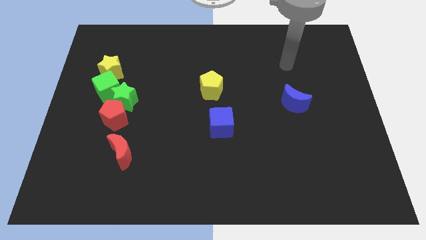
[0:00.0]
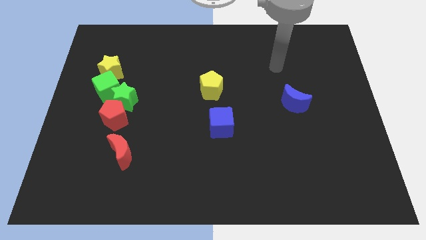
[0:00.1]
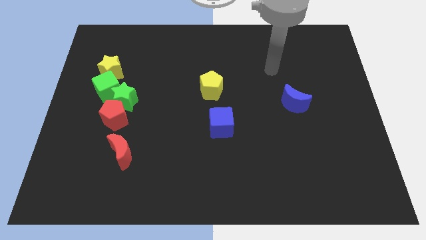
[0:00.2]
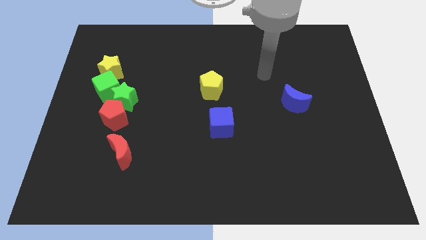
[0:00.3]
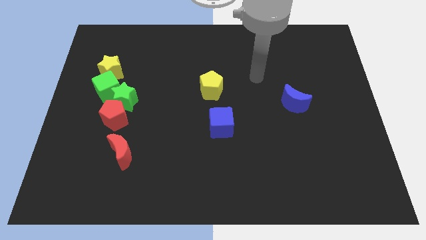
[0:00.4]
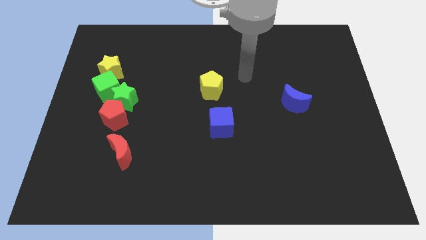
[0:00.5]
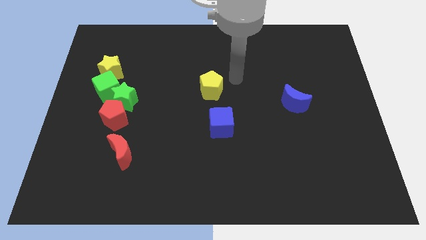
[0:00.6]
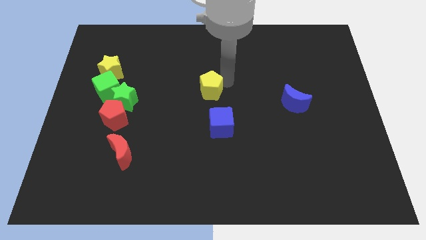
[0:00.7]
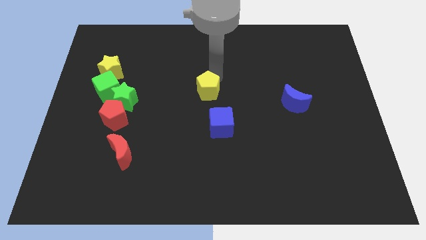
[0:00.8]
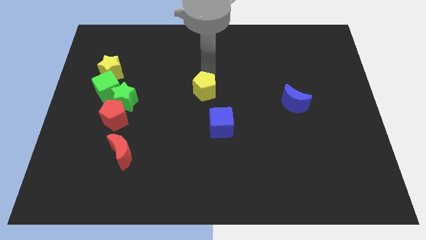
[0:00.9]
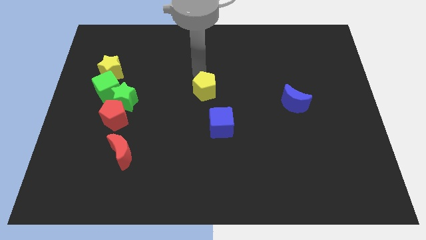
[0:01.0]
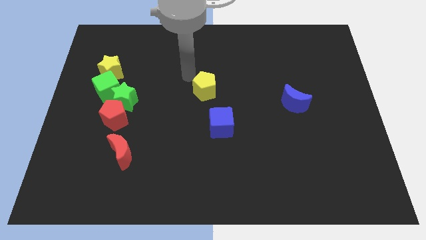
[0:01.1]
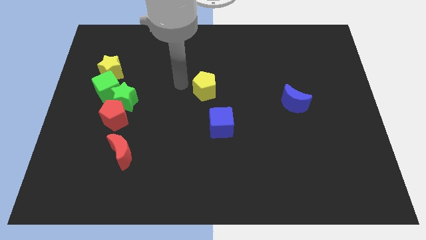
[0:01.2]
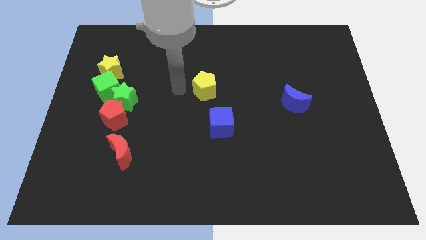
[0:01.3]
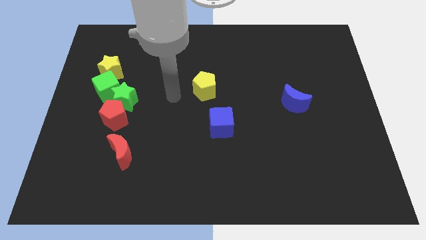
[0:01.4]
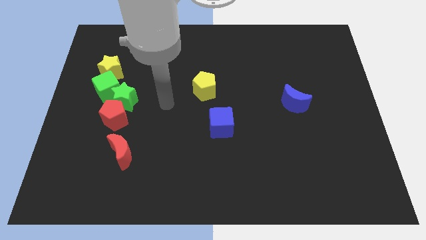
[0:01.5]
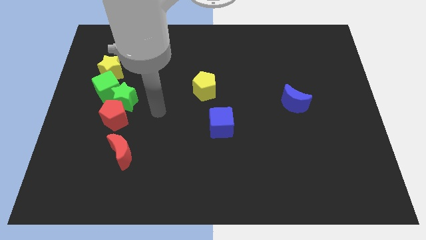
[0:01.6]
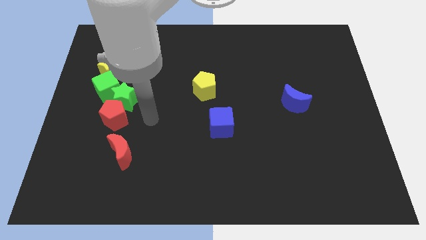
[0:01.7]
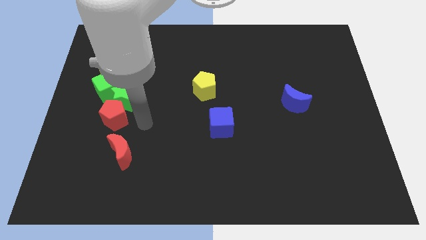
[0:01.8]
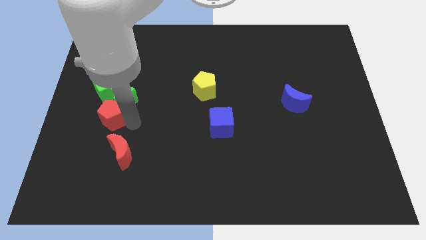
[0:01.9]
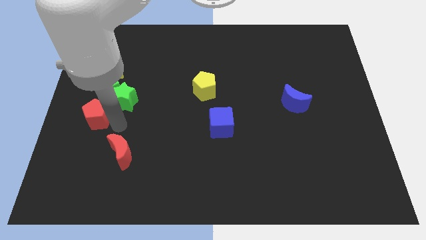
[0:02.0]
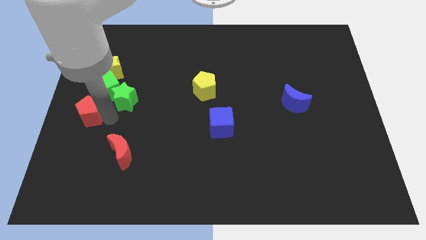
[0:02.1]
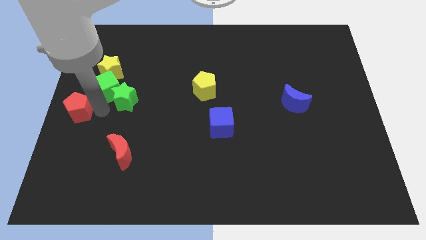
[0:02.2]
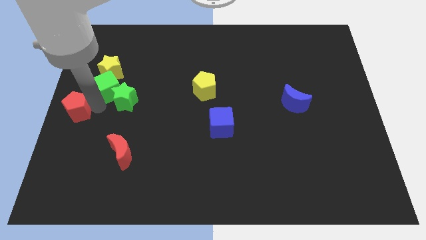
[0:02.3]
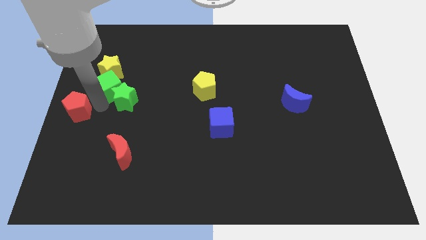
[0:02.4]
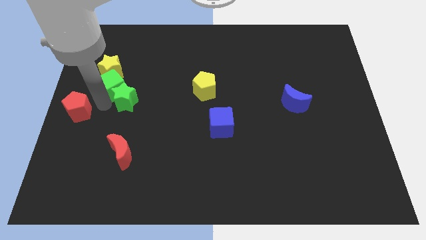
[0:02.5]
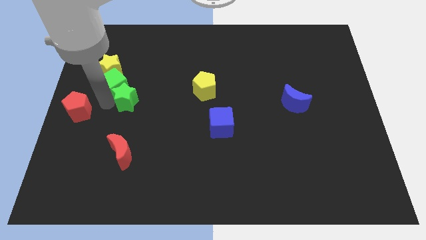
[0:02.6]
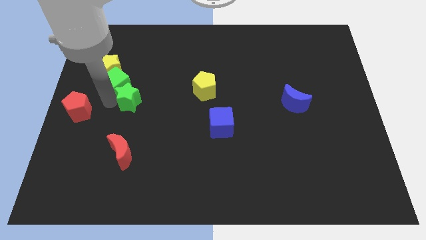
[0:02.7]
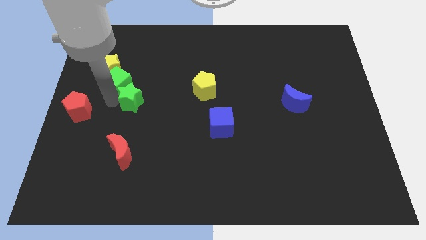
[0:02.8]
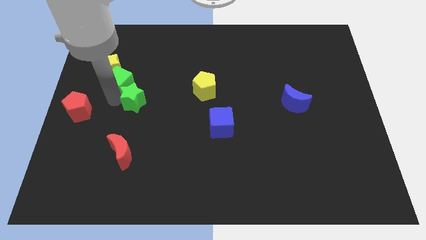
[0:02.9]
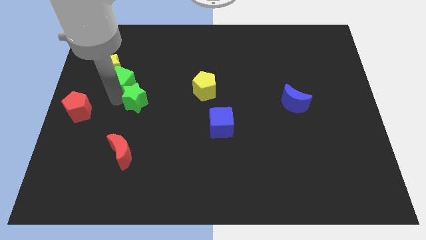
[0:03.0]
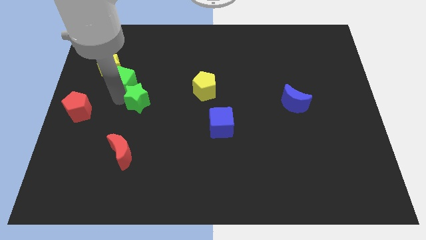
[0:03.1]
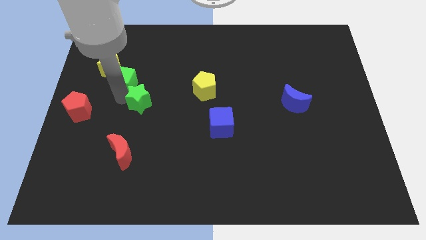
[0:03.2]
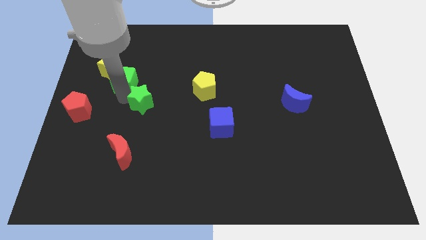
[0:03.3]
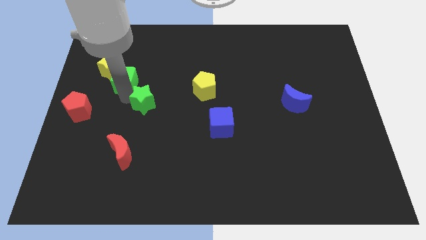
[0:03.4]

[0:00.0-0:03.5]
separate the green star from the red pentagon and green cube

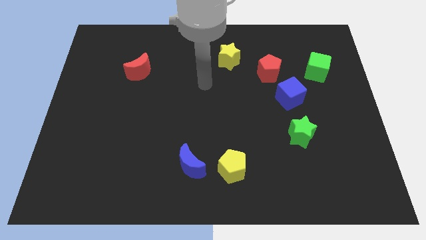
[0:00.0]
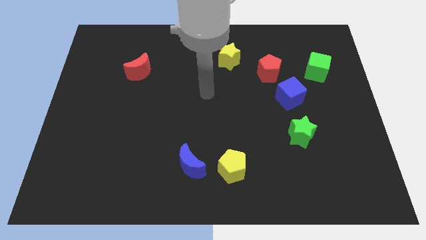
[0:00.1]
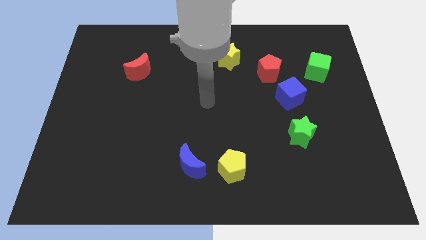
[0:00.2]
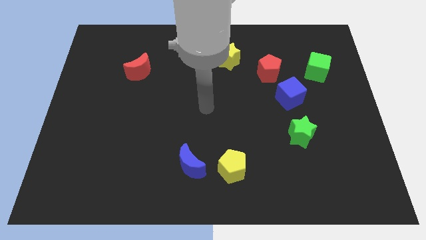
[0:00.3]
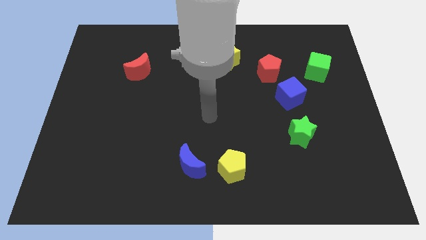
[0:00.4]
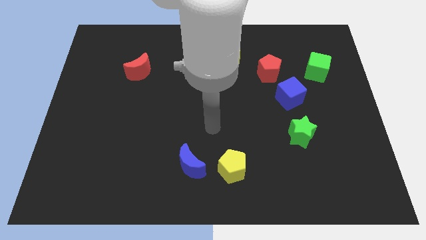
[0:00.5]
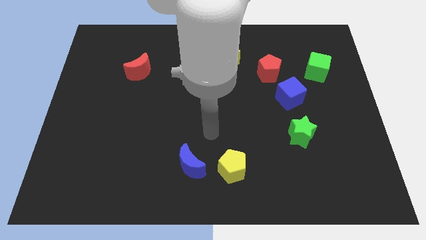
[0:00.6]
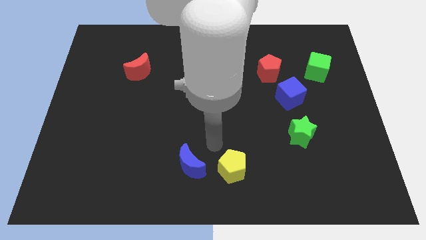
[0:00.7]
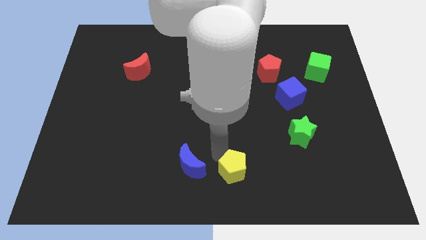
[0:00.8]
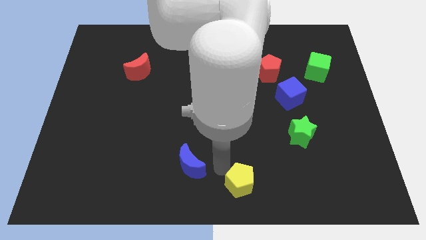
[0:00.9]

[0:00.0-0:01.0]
pull the blue moon apart from the yellow pentagon

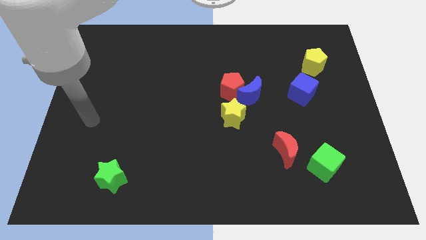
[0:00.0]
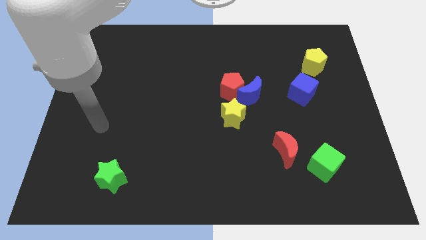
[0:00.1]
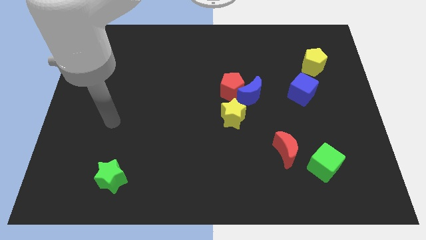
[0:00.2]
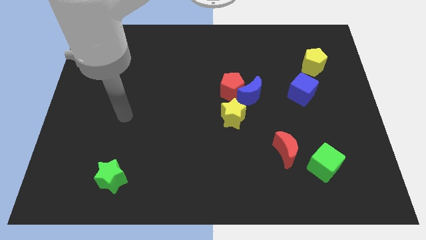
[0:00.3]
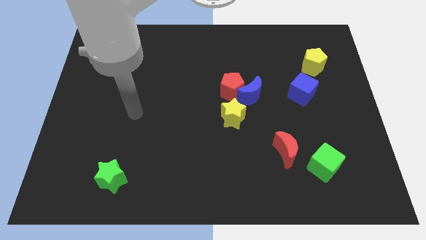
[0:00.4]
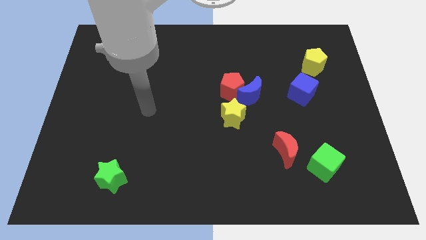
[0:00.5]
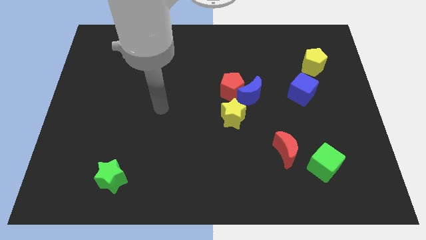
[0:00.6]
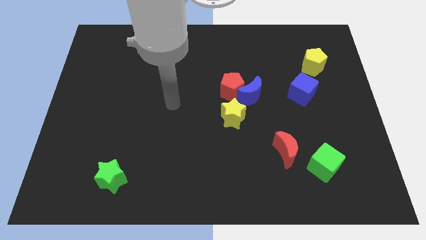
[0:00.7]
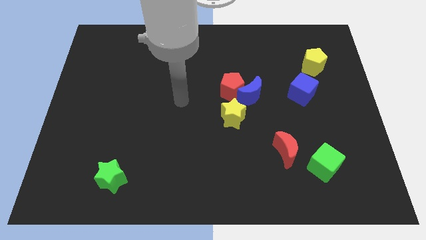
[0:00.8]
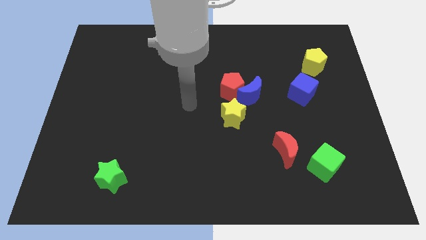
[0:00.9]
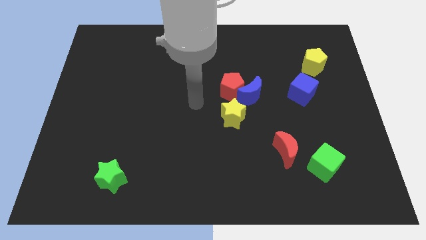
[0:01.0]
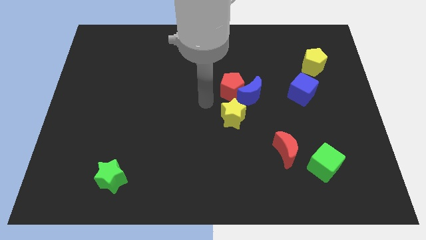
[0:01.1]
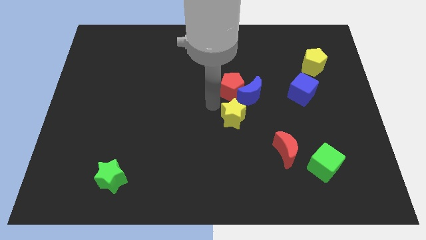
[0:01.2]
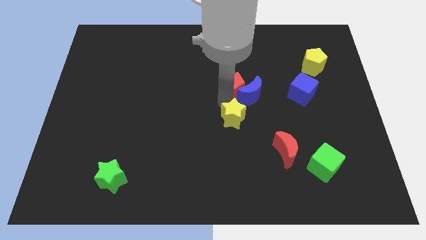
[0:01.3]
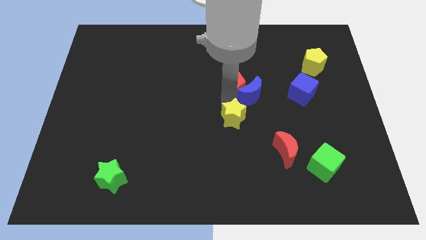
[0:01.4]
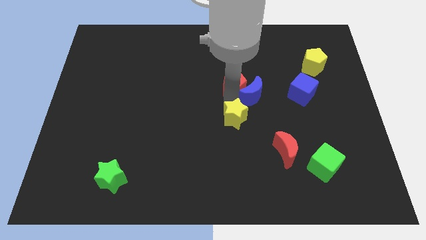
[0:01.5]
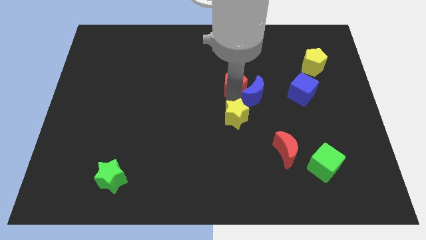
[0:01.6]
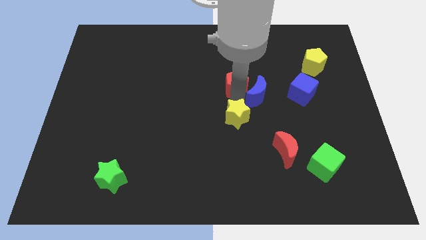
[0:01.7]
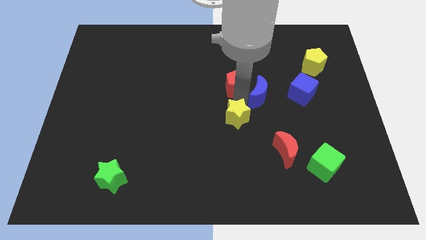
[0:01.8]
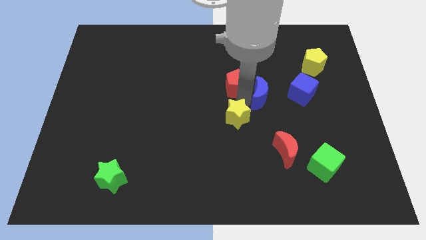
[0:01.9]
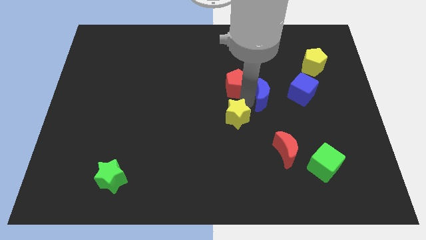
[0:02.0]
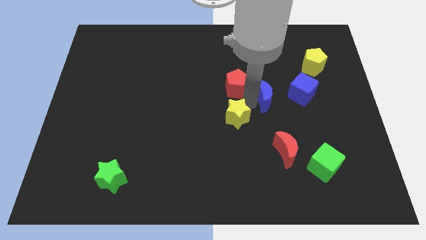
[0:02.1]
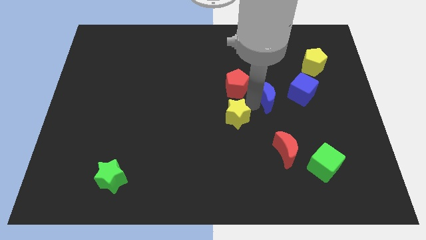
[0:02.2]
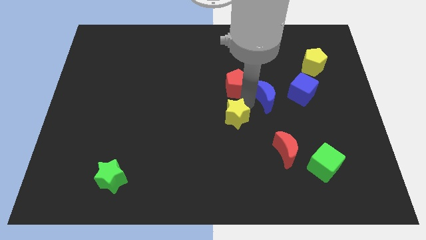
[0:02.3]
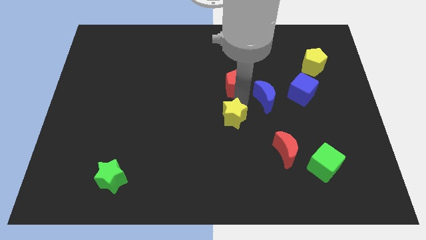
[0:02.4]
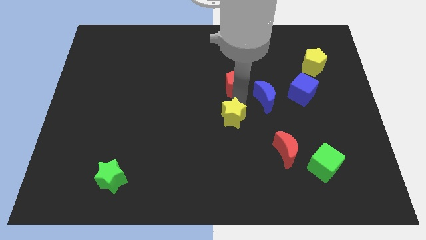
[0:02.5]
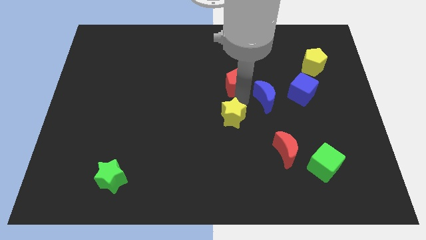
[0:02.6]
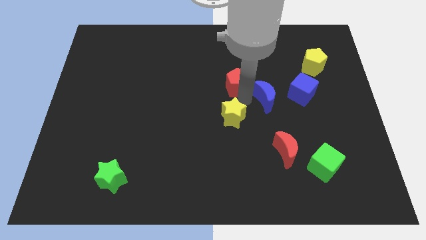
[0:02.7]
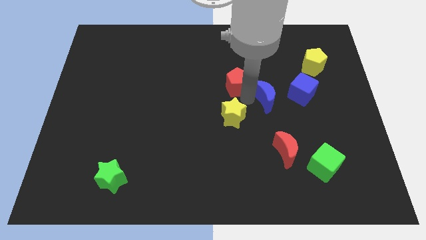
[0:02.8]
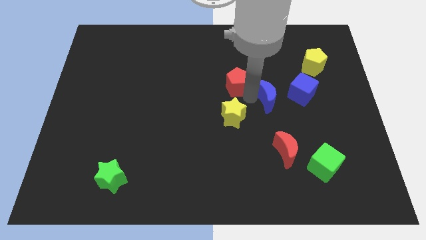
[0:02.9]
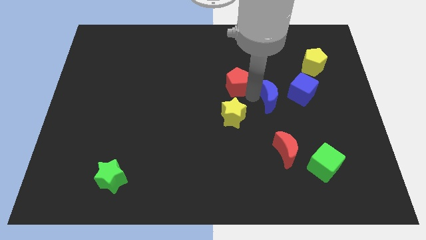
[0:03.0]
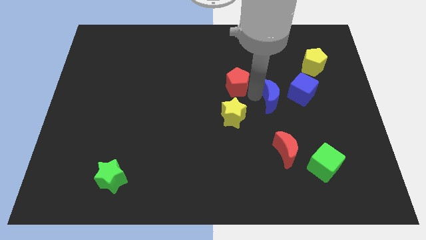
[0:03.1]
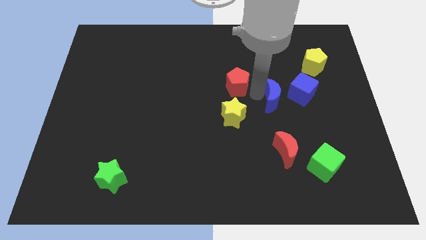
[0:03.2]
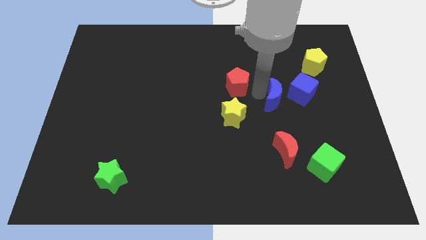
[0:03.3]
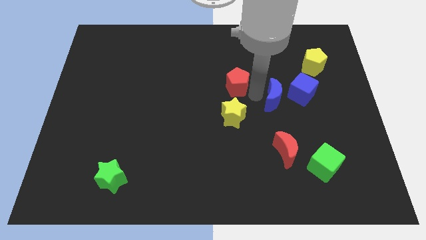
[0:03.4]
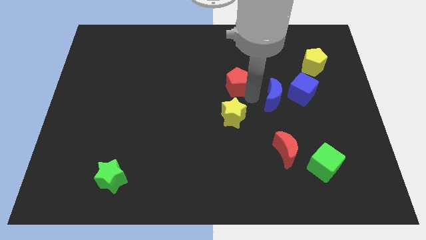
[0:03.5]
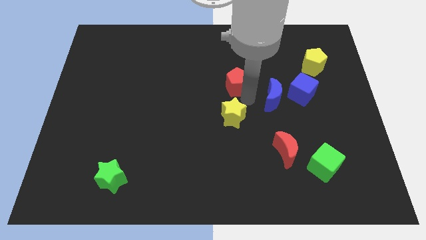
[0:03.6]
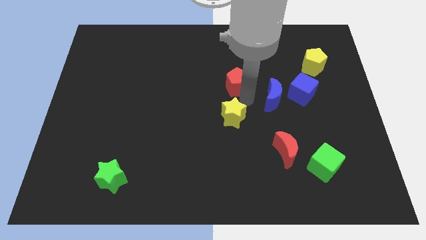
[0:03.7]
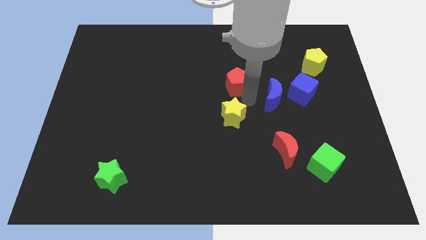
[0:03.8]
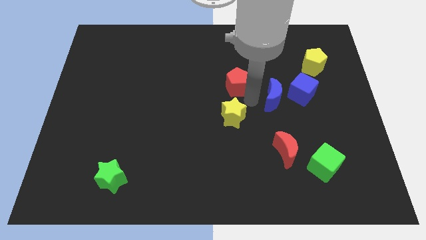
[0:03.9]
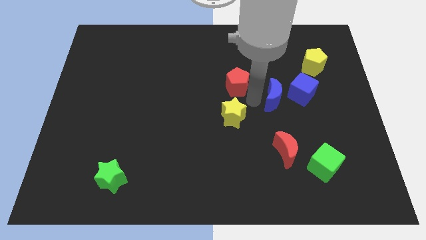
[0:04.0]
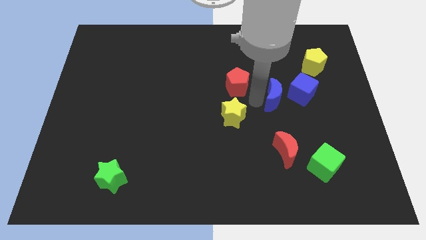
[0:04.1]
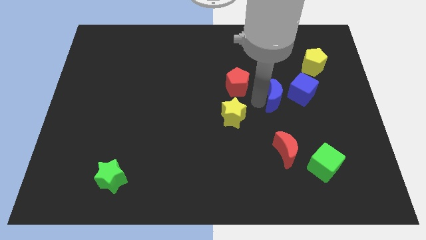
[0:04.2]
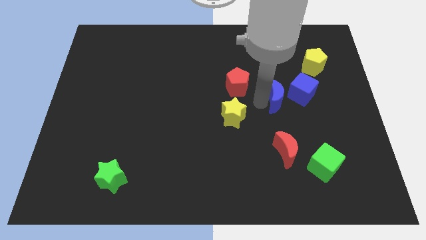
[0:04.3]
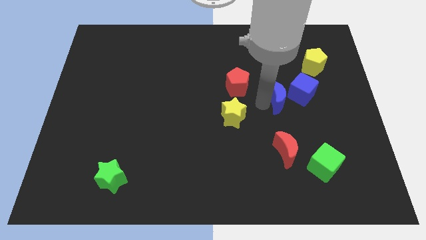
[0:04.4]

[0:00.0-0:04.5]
move the blue moon away from the red pentagon and yellow star

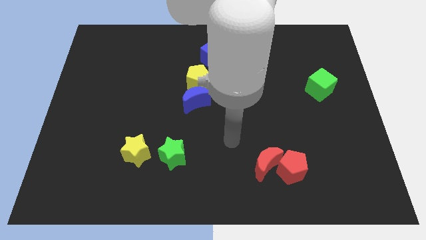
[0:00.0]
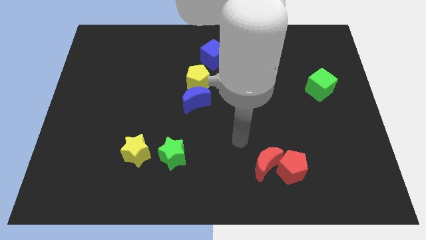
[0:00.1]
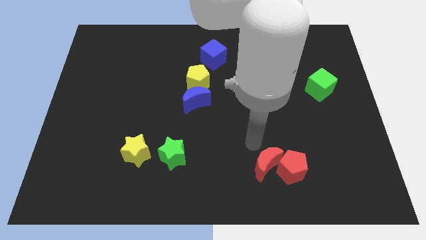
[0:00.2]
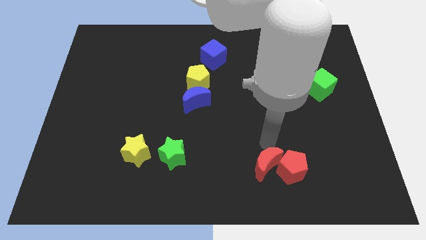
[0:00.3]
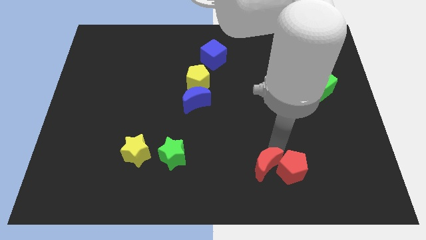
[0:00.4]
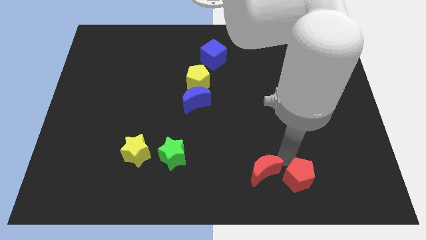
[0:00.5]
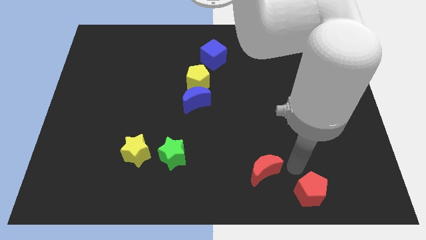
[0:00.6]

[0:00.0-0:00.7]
move the red moon away from the red pentagon
